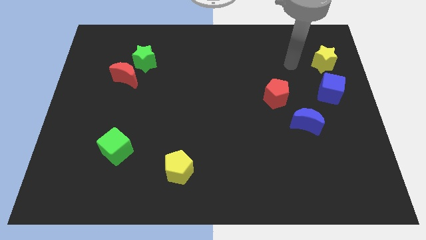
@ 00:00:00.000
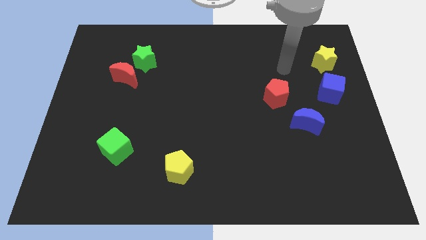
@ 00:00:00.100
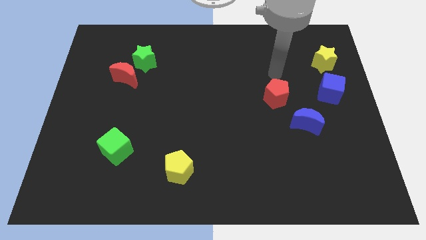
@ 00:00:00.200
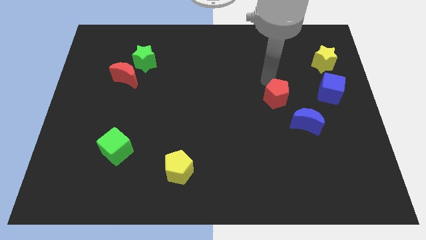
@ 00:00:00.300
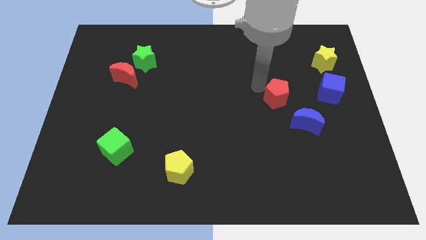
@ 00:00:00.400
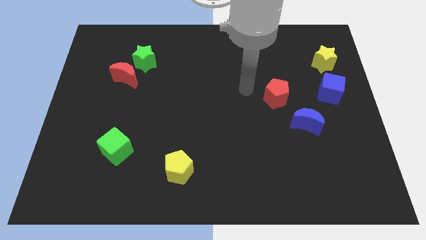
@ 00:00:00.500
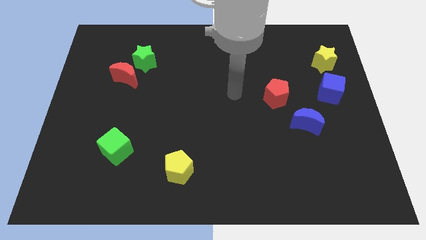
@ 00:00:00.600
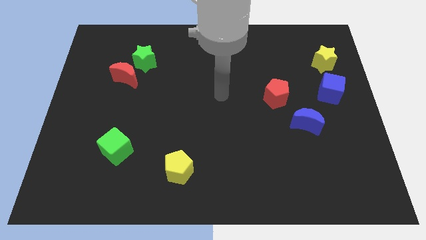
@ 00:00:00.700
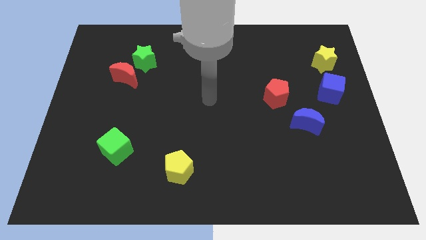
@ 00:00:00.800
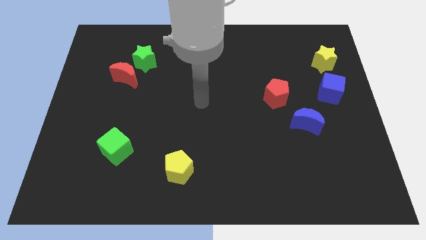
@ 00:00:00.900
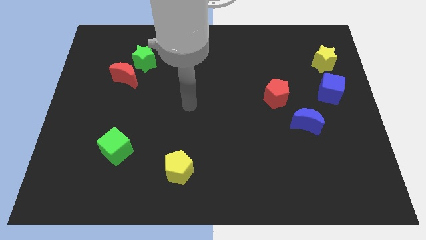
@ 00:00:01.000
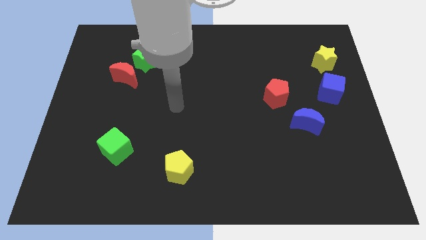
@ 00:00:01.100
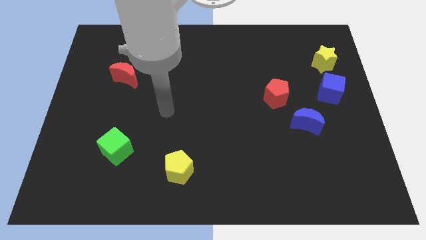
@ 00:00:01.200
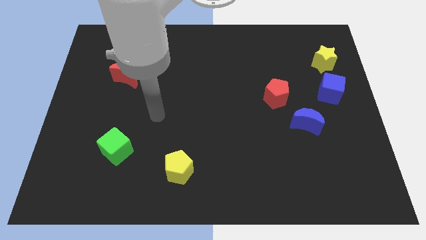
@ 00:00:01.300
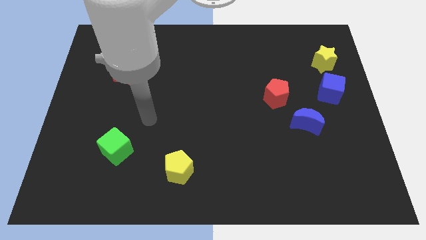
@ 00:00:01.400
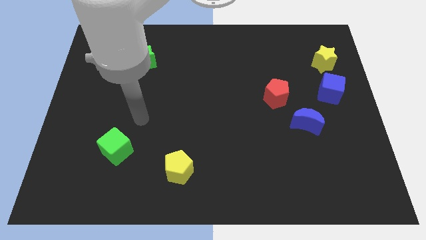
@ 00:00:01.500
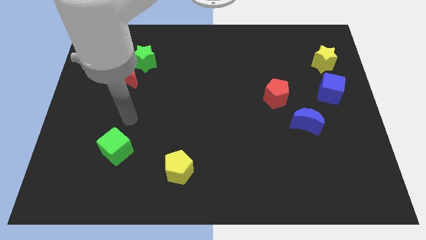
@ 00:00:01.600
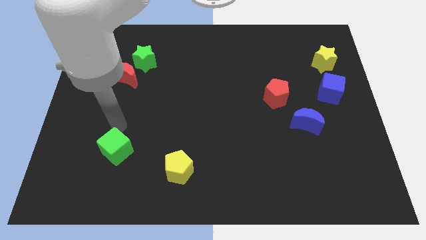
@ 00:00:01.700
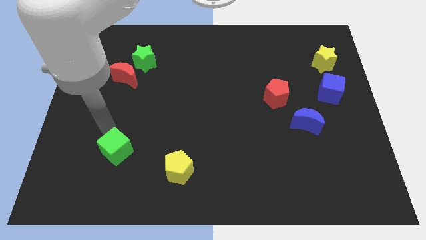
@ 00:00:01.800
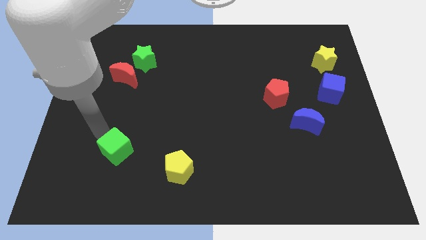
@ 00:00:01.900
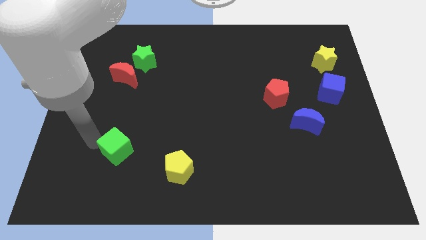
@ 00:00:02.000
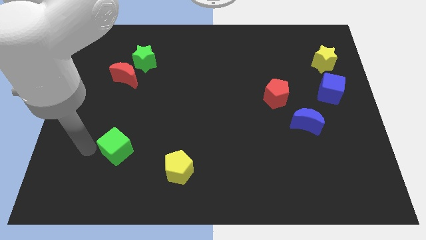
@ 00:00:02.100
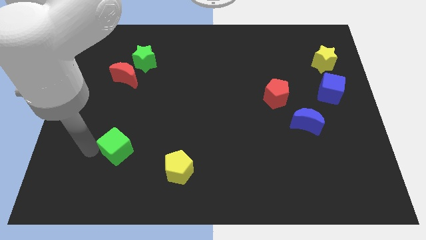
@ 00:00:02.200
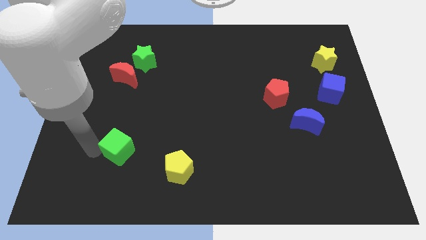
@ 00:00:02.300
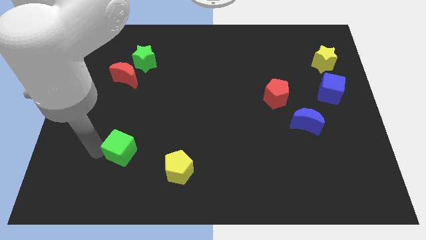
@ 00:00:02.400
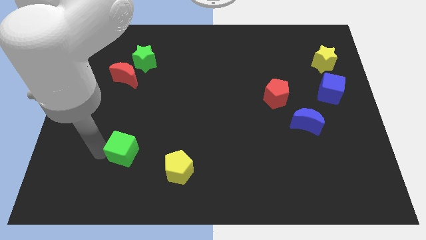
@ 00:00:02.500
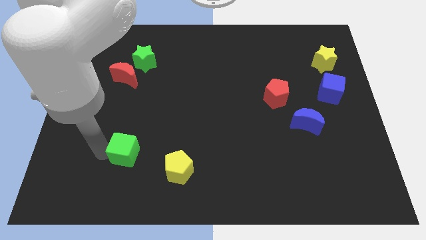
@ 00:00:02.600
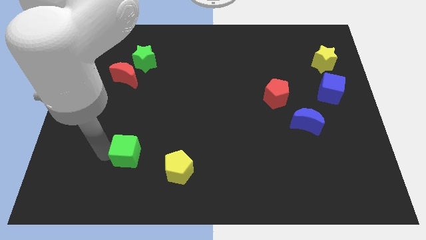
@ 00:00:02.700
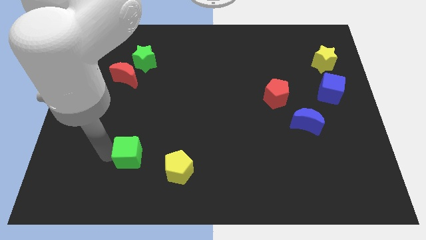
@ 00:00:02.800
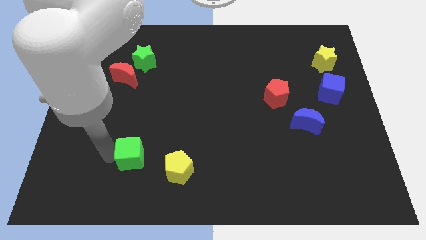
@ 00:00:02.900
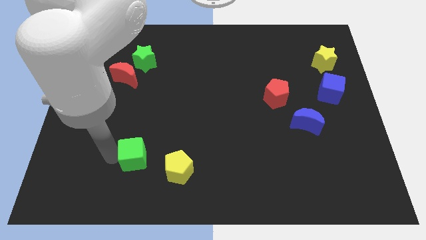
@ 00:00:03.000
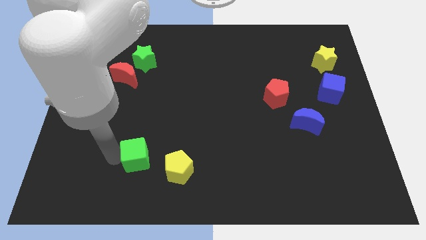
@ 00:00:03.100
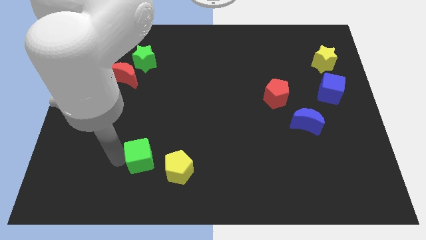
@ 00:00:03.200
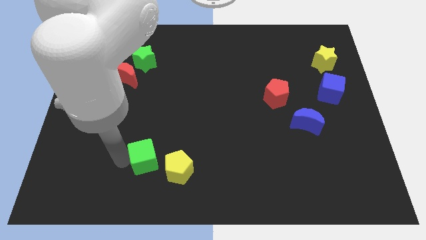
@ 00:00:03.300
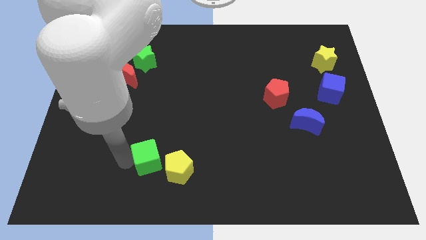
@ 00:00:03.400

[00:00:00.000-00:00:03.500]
slide the green cube right a little

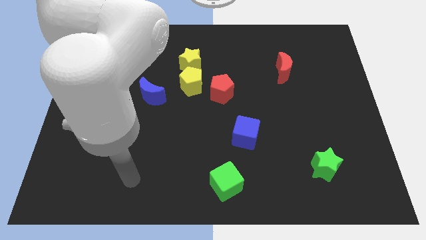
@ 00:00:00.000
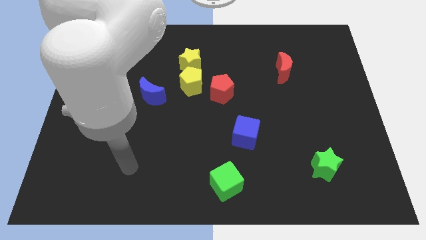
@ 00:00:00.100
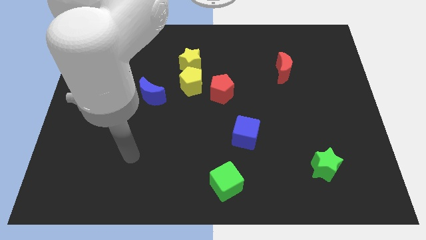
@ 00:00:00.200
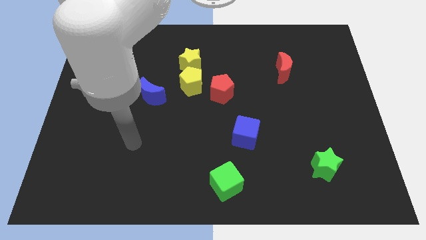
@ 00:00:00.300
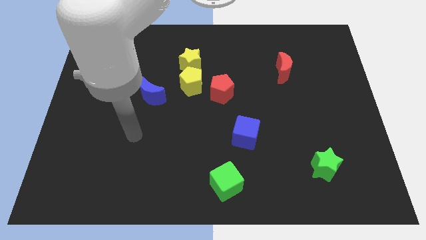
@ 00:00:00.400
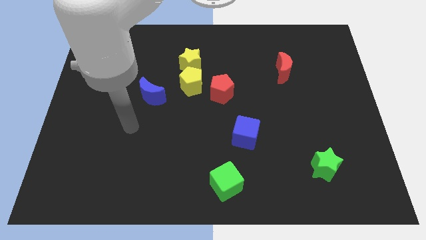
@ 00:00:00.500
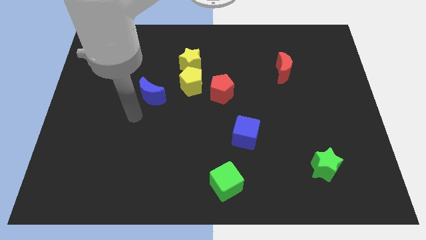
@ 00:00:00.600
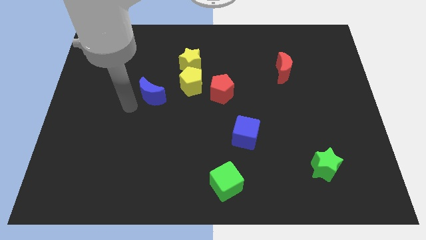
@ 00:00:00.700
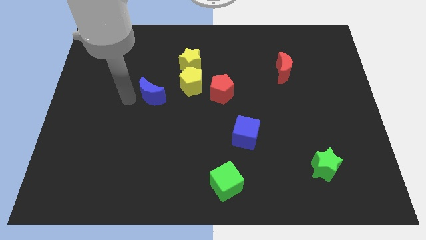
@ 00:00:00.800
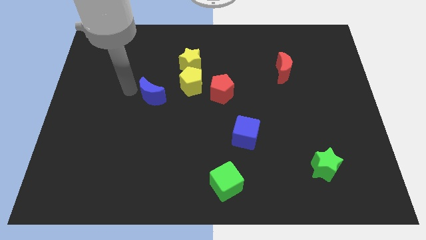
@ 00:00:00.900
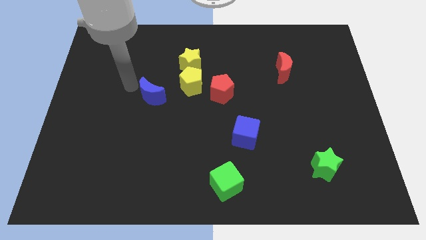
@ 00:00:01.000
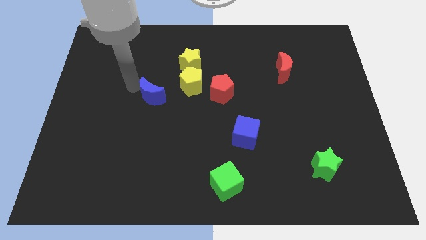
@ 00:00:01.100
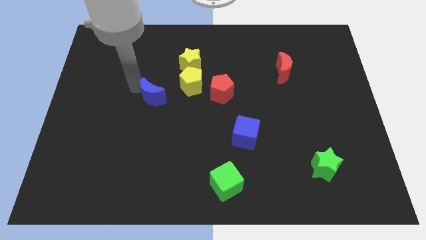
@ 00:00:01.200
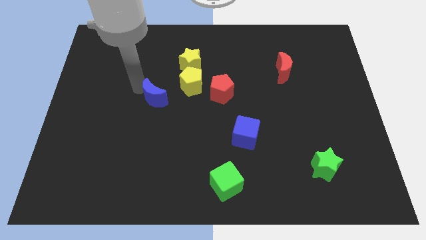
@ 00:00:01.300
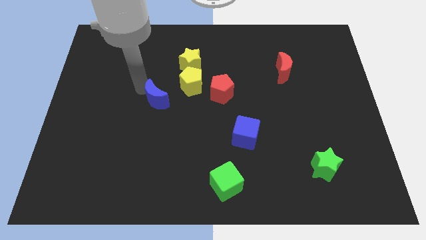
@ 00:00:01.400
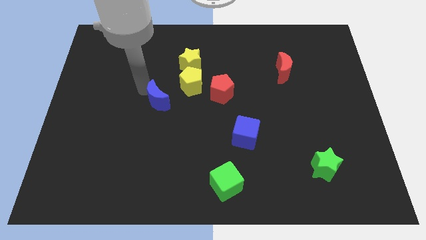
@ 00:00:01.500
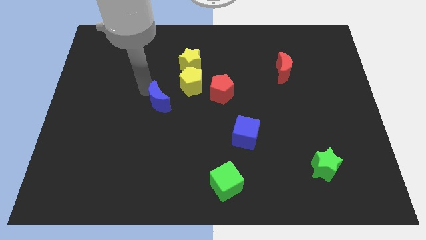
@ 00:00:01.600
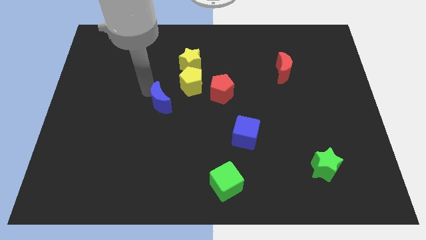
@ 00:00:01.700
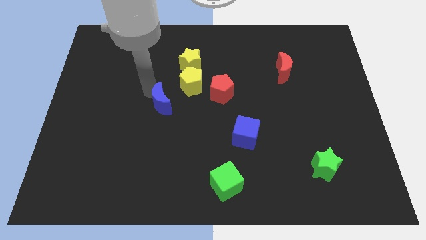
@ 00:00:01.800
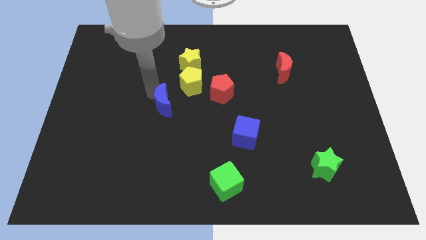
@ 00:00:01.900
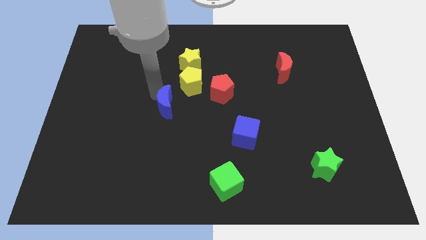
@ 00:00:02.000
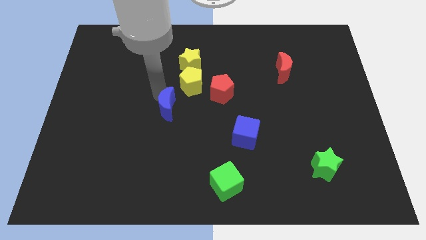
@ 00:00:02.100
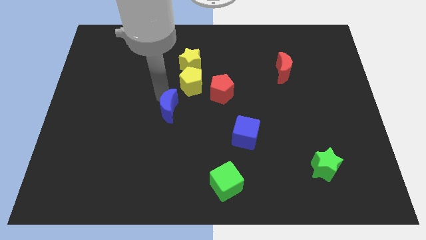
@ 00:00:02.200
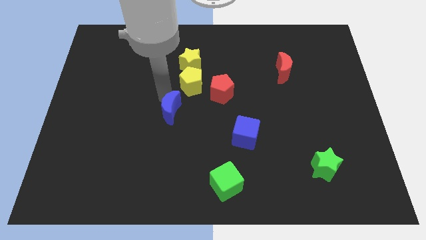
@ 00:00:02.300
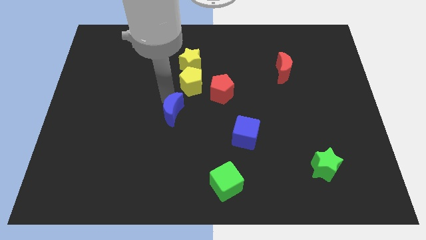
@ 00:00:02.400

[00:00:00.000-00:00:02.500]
push the blue moon a bit downwards and then to the right

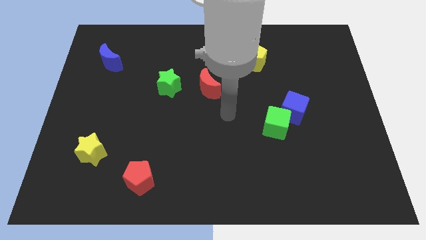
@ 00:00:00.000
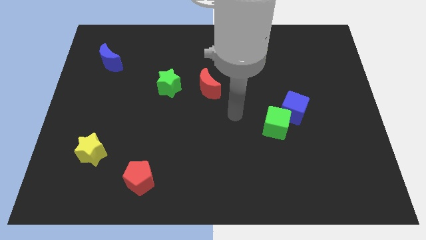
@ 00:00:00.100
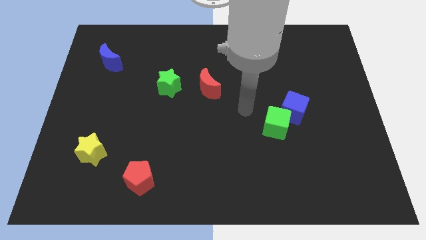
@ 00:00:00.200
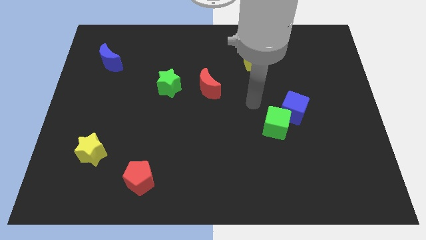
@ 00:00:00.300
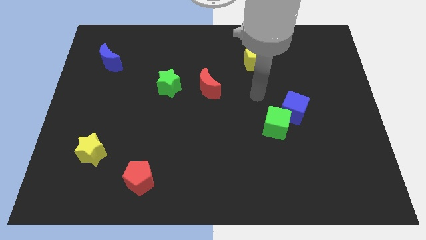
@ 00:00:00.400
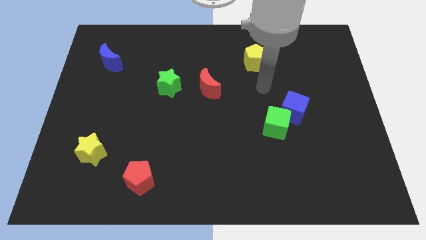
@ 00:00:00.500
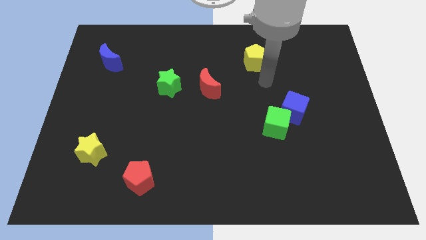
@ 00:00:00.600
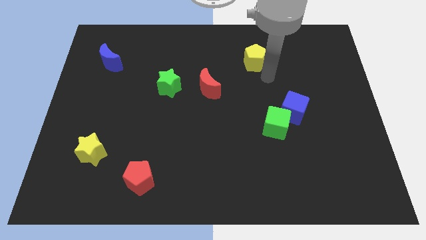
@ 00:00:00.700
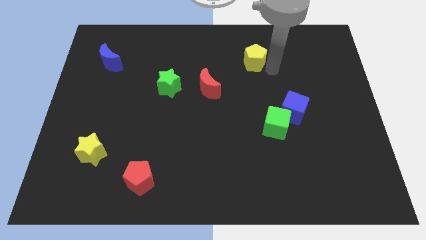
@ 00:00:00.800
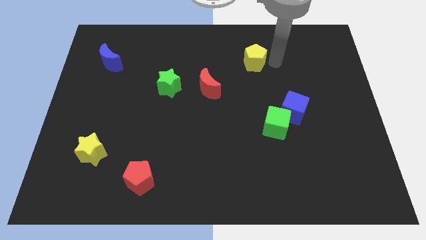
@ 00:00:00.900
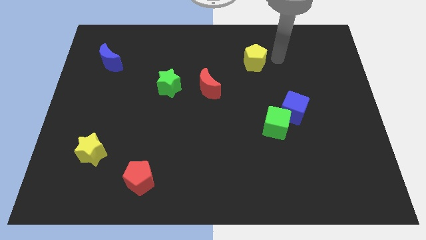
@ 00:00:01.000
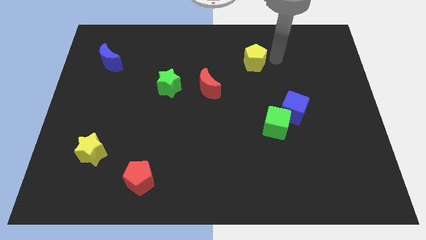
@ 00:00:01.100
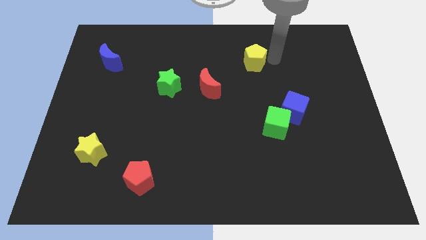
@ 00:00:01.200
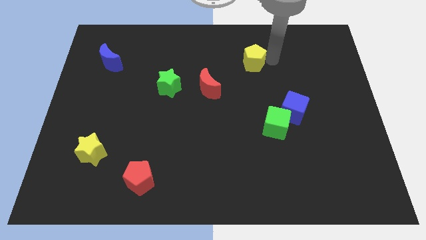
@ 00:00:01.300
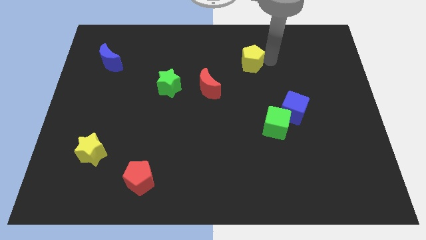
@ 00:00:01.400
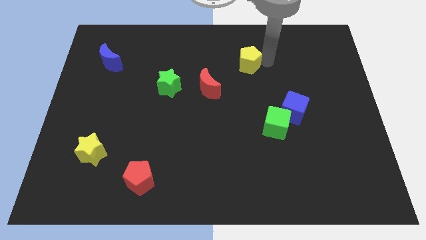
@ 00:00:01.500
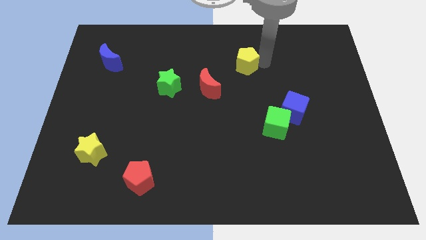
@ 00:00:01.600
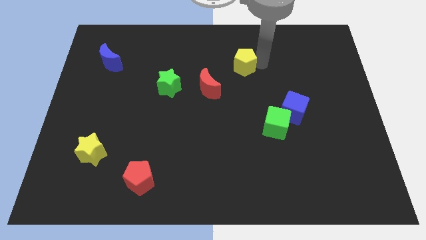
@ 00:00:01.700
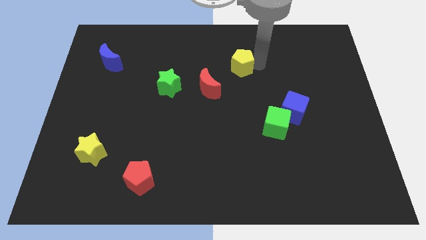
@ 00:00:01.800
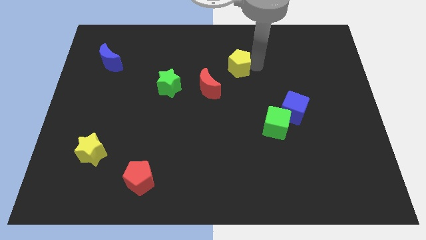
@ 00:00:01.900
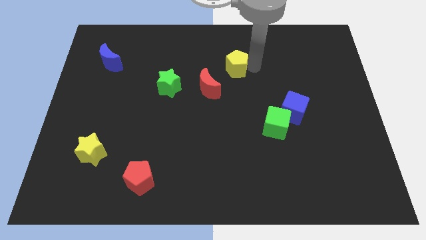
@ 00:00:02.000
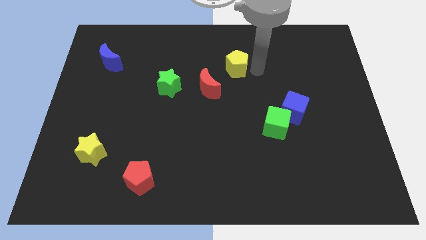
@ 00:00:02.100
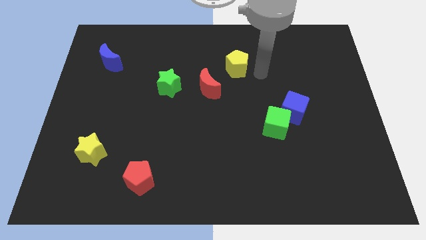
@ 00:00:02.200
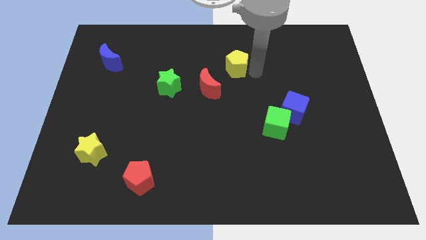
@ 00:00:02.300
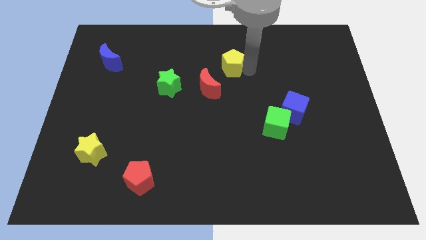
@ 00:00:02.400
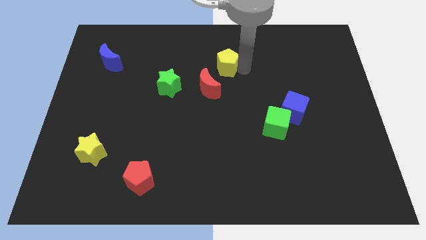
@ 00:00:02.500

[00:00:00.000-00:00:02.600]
move the yellow pentagon left somewhat
